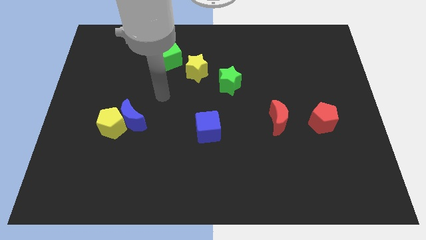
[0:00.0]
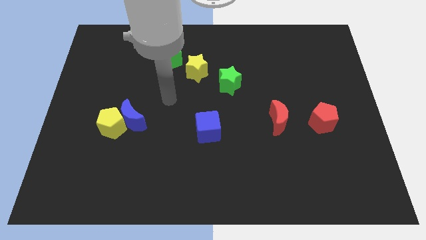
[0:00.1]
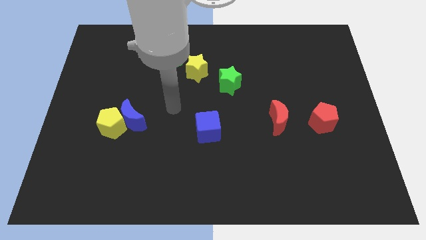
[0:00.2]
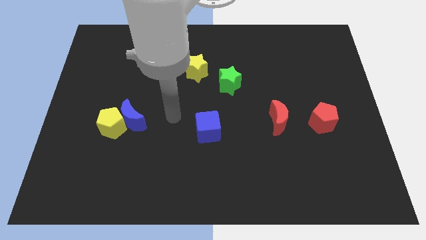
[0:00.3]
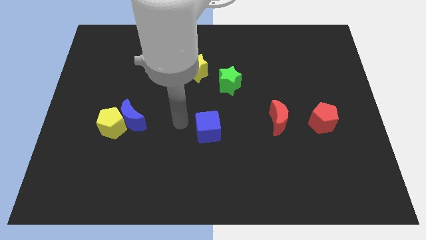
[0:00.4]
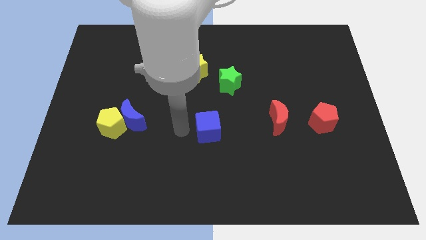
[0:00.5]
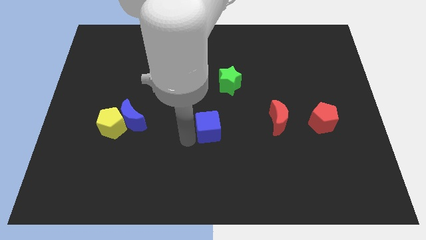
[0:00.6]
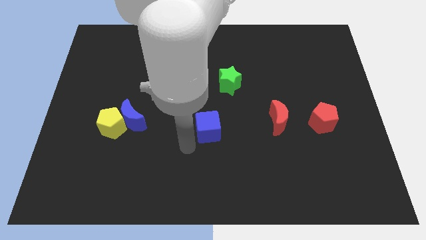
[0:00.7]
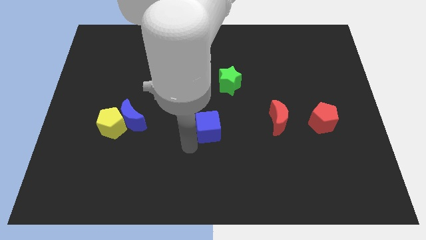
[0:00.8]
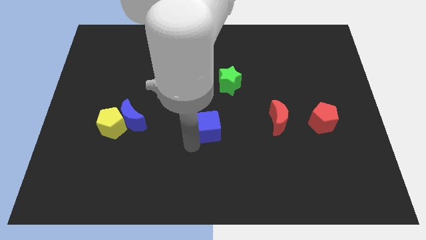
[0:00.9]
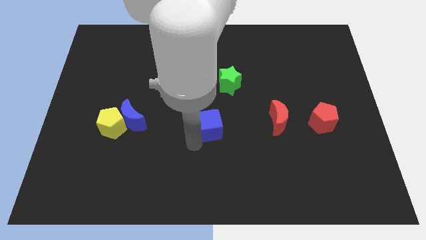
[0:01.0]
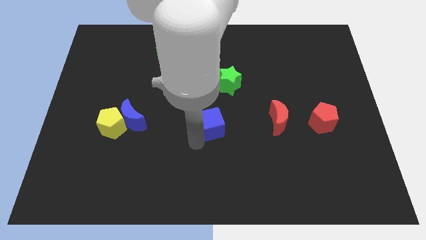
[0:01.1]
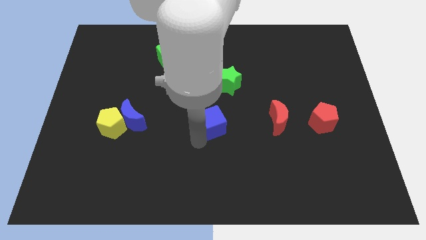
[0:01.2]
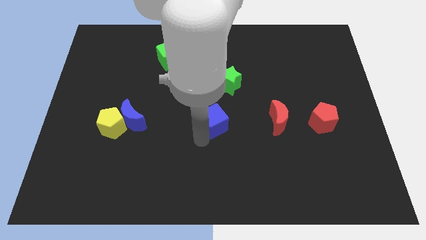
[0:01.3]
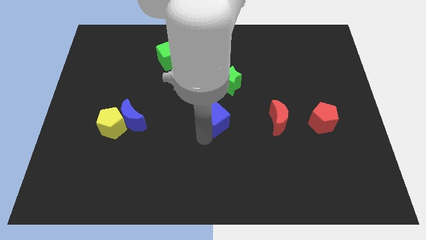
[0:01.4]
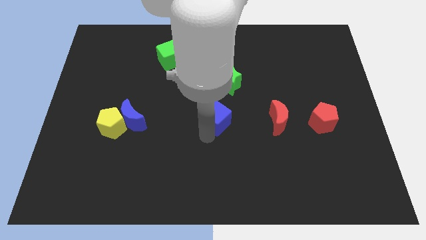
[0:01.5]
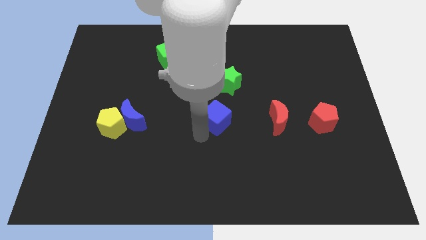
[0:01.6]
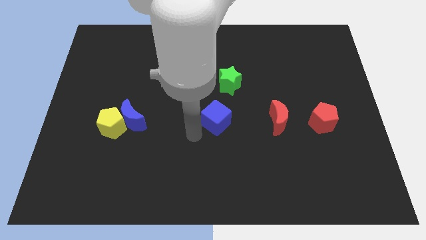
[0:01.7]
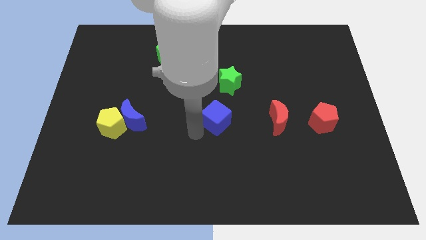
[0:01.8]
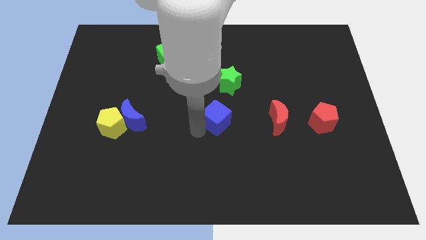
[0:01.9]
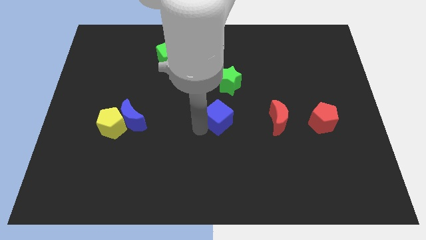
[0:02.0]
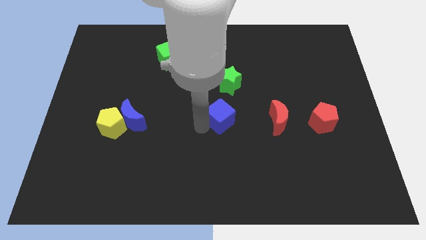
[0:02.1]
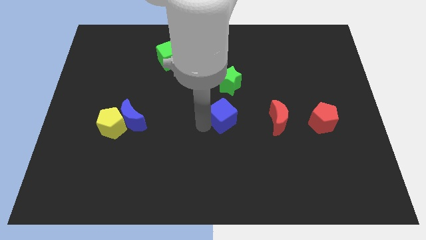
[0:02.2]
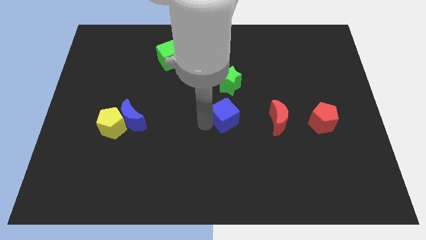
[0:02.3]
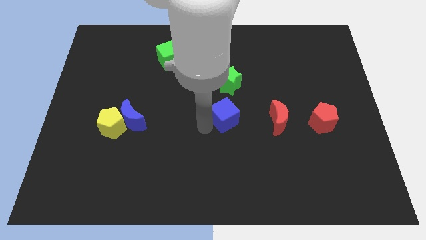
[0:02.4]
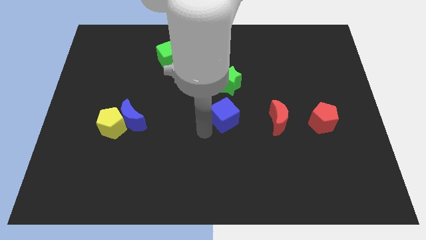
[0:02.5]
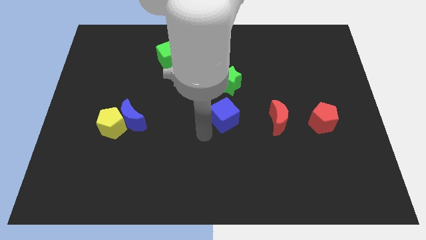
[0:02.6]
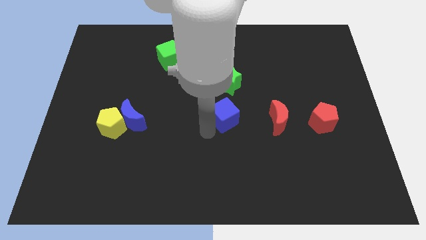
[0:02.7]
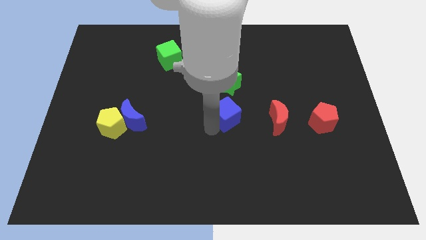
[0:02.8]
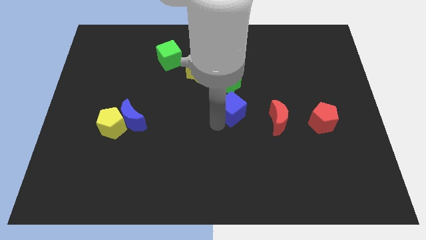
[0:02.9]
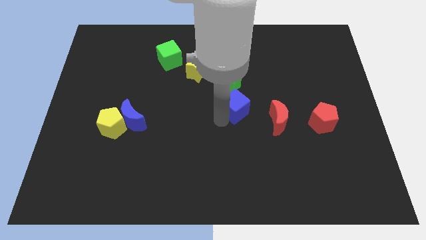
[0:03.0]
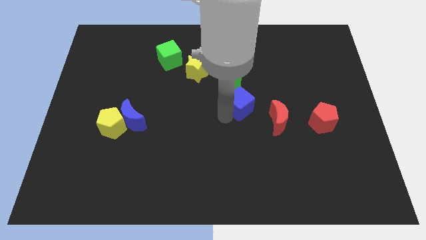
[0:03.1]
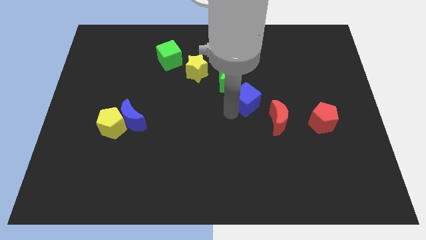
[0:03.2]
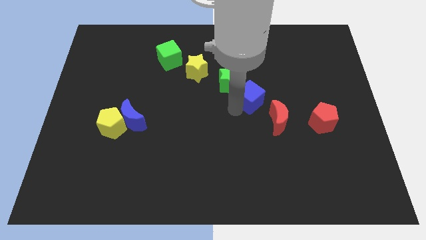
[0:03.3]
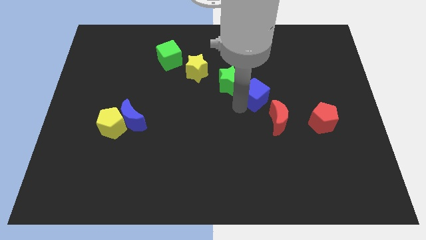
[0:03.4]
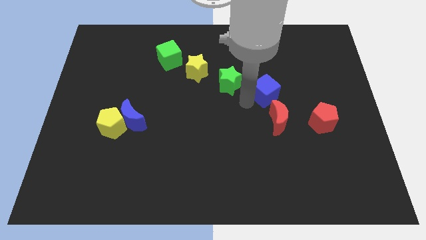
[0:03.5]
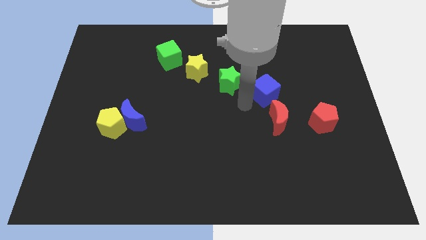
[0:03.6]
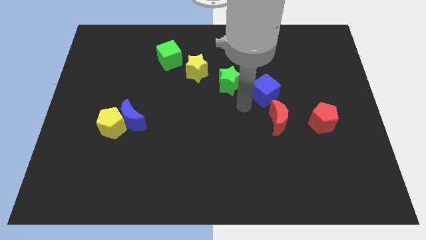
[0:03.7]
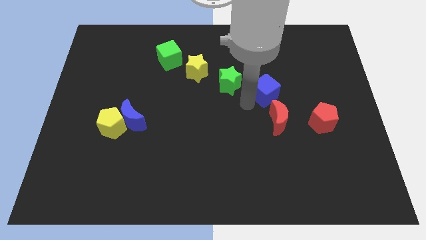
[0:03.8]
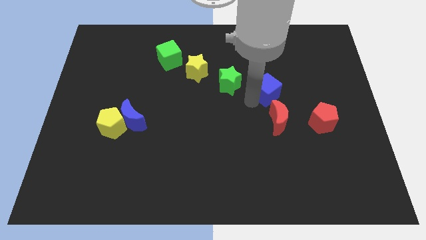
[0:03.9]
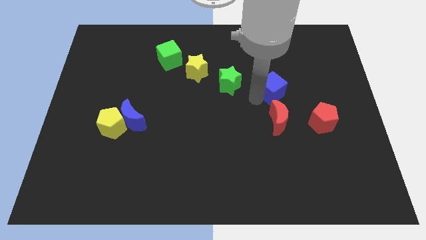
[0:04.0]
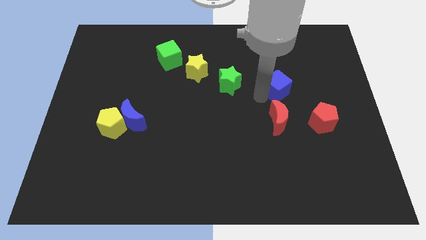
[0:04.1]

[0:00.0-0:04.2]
push the blue cube diagonally upwards and to the right

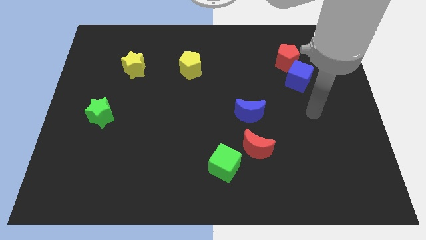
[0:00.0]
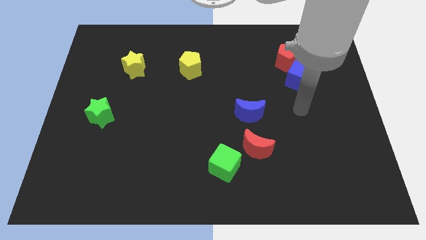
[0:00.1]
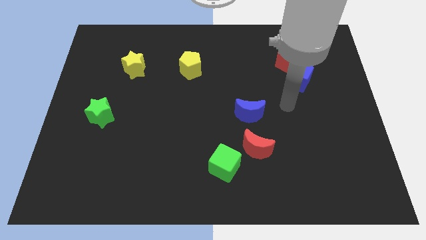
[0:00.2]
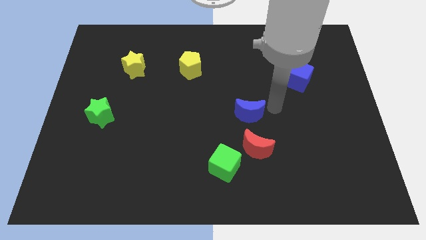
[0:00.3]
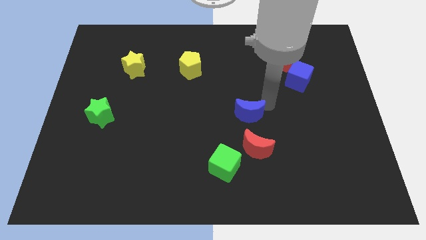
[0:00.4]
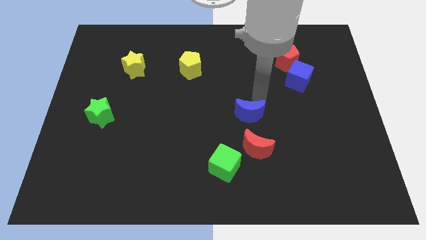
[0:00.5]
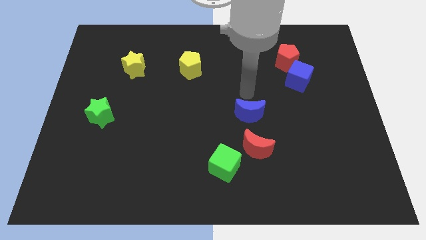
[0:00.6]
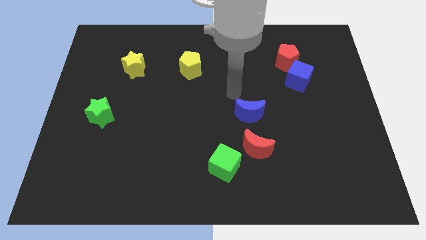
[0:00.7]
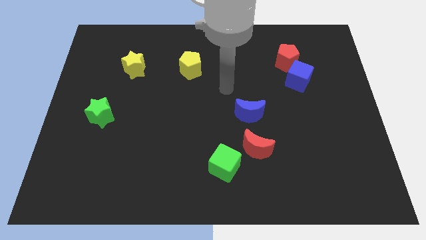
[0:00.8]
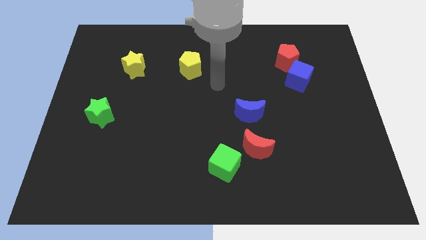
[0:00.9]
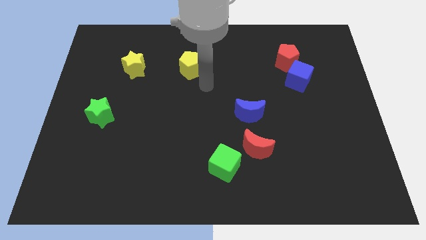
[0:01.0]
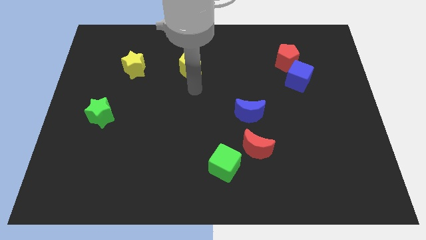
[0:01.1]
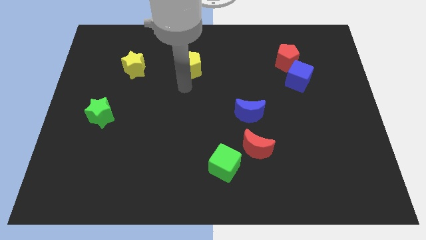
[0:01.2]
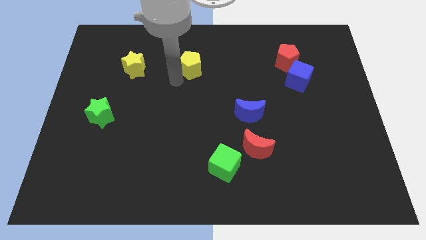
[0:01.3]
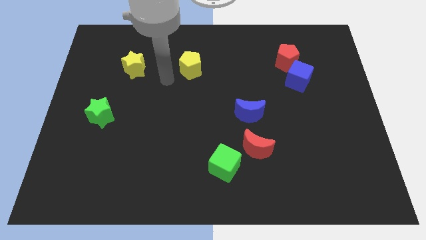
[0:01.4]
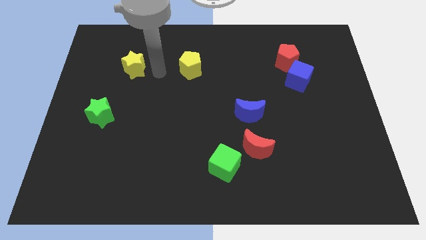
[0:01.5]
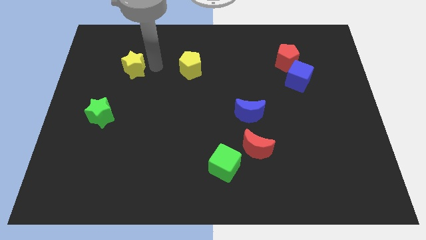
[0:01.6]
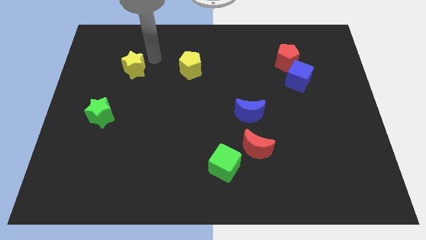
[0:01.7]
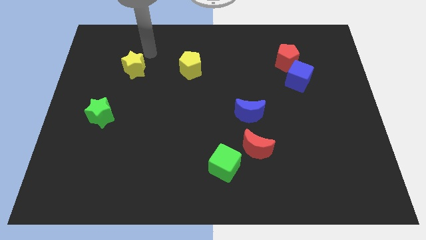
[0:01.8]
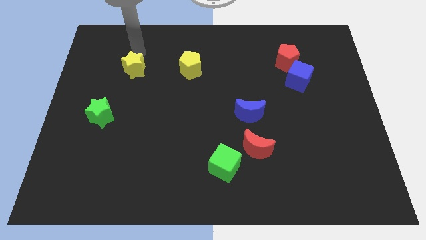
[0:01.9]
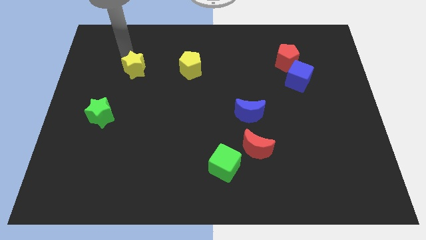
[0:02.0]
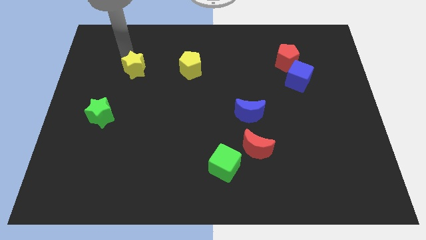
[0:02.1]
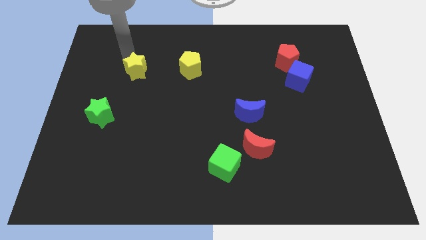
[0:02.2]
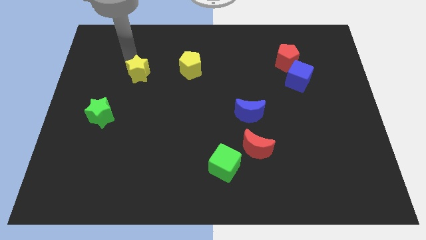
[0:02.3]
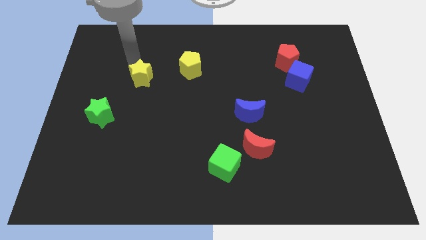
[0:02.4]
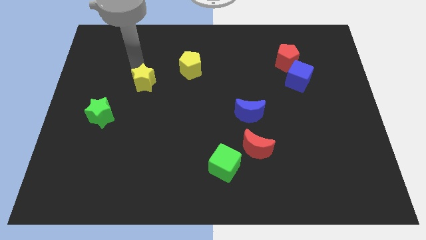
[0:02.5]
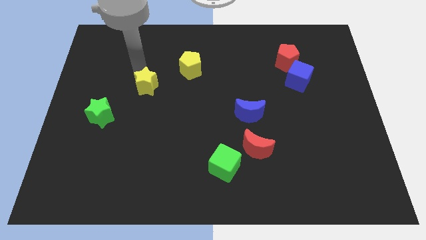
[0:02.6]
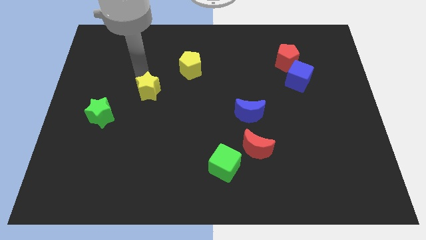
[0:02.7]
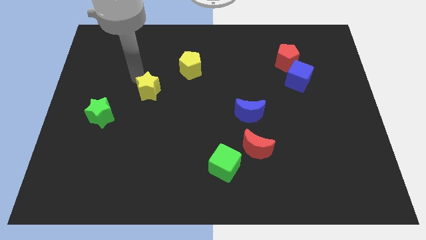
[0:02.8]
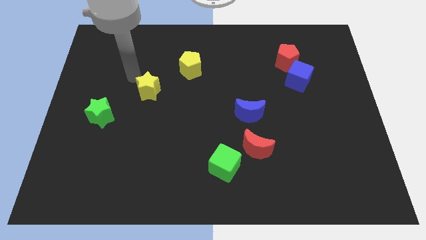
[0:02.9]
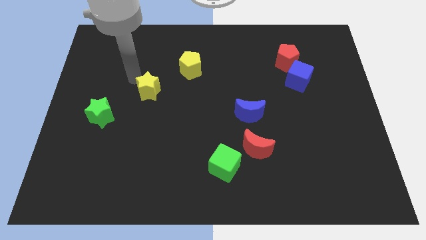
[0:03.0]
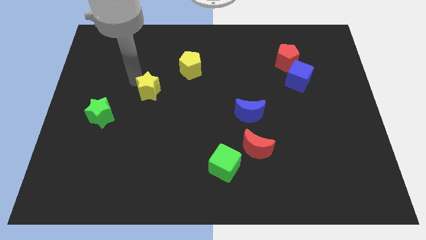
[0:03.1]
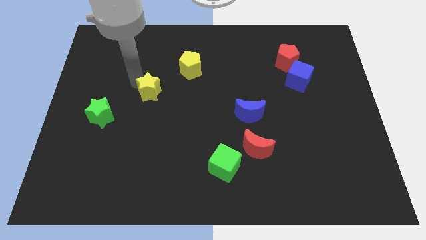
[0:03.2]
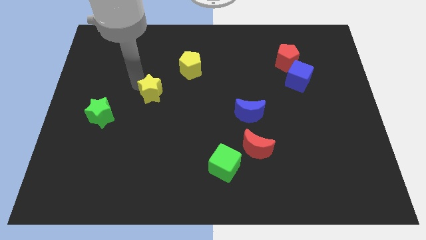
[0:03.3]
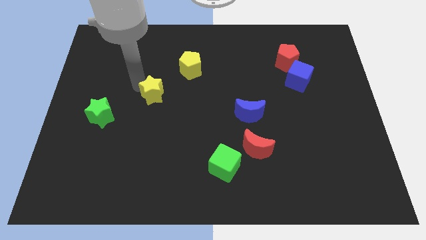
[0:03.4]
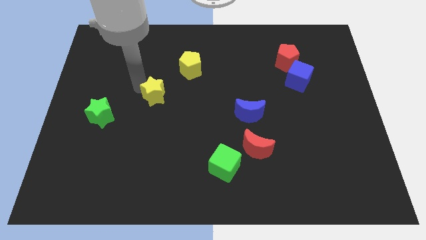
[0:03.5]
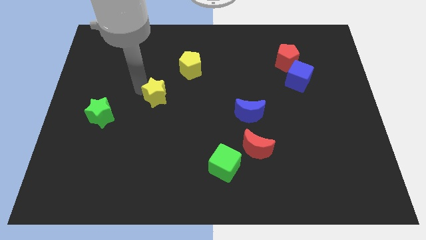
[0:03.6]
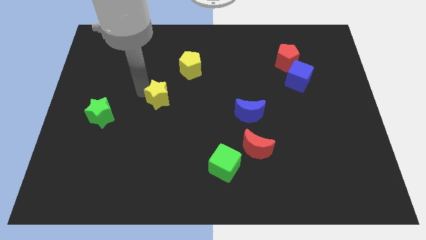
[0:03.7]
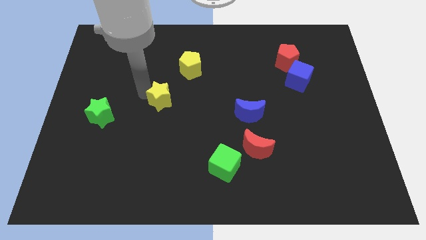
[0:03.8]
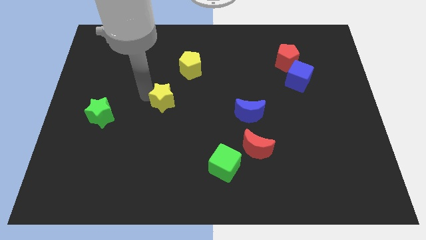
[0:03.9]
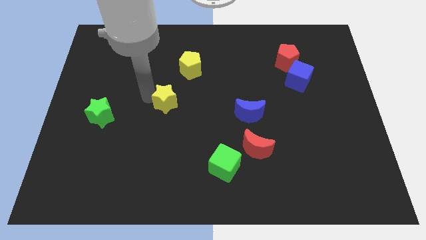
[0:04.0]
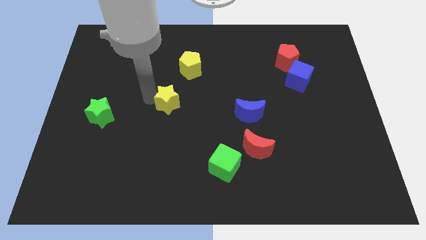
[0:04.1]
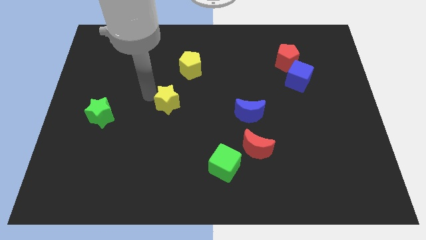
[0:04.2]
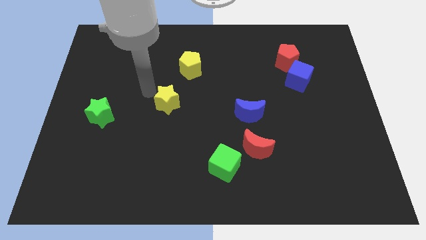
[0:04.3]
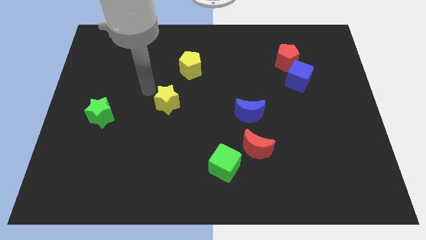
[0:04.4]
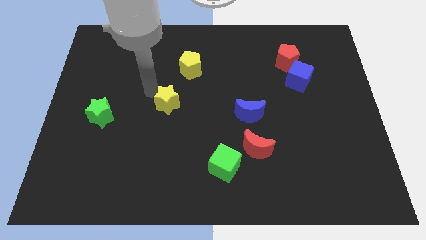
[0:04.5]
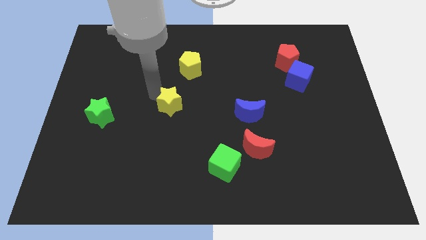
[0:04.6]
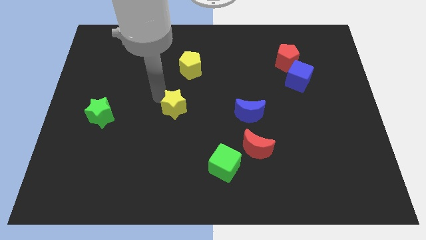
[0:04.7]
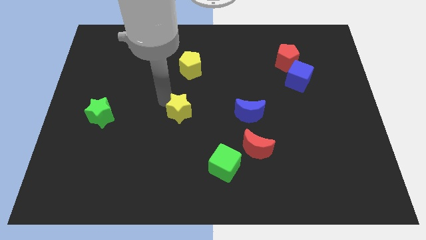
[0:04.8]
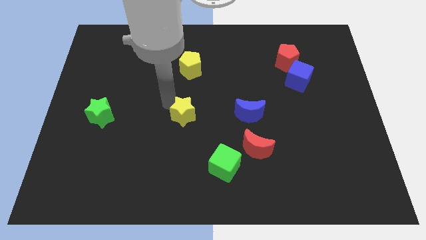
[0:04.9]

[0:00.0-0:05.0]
slide the yellow star diagonally downwards and right
